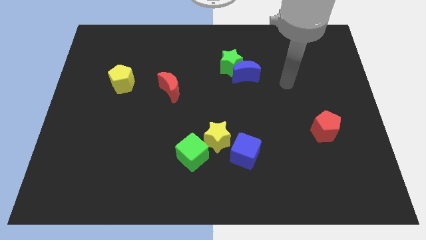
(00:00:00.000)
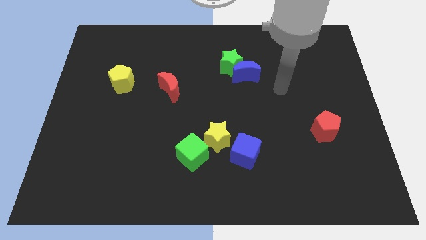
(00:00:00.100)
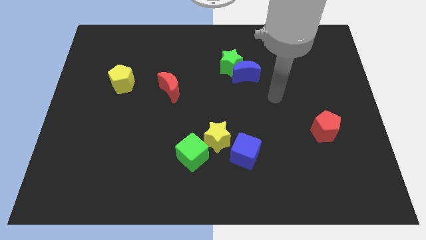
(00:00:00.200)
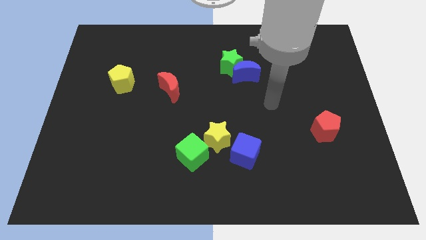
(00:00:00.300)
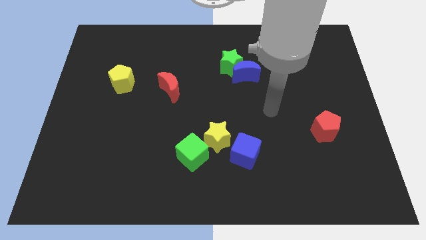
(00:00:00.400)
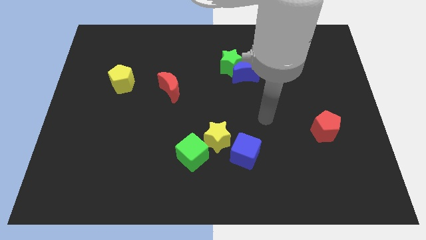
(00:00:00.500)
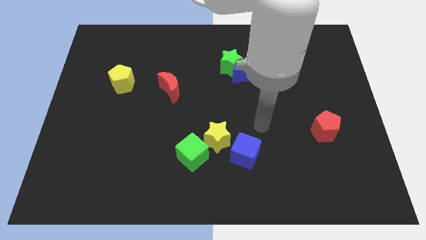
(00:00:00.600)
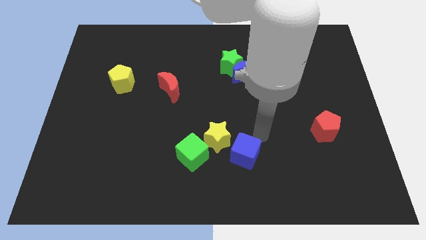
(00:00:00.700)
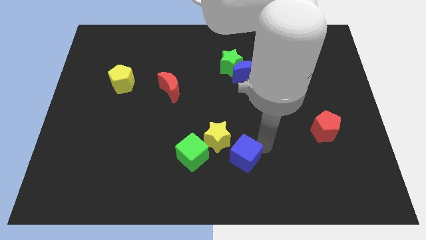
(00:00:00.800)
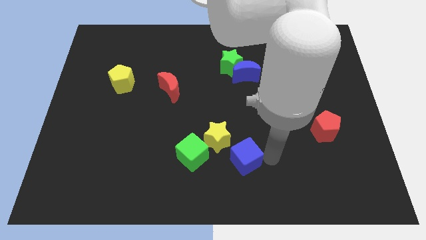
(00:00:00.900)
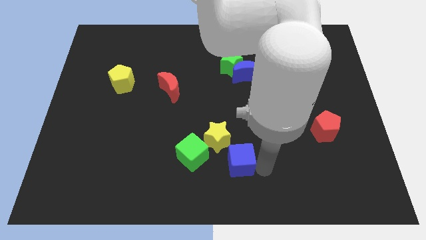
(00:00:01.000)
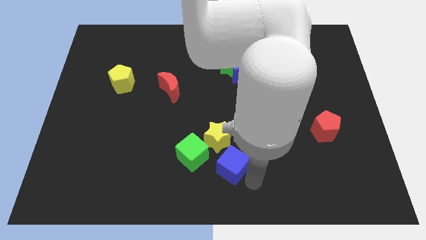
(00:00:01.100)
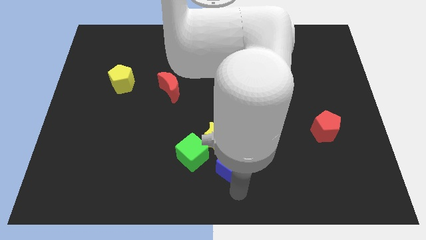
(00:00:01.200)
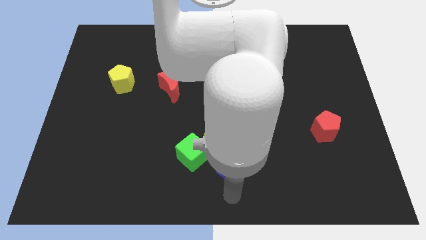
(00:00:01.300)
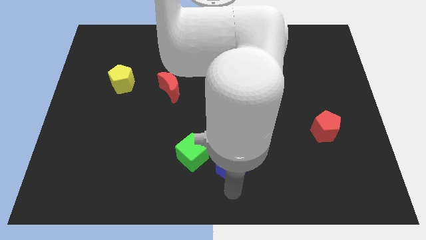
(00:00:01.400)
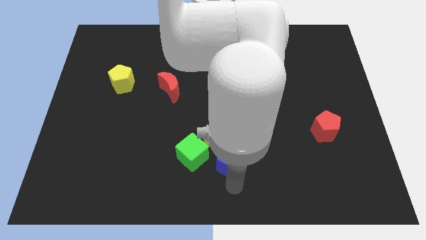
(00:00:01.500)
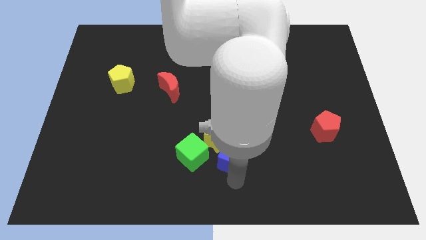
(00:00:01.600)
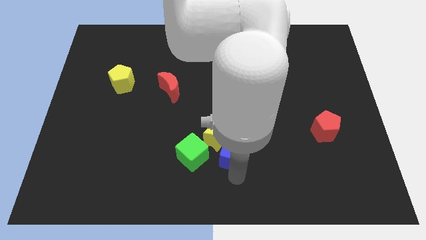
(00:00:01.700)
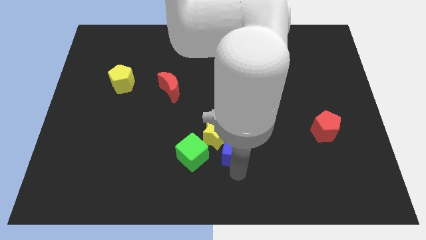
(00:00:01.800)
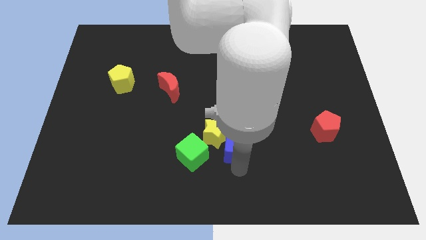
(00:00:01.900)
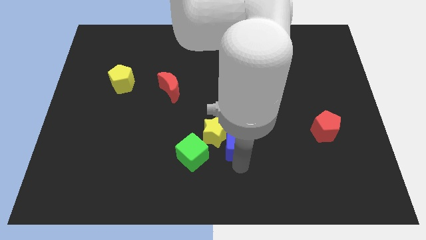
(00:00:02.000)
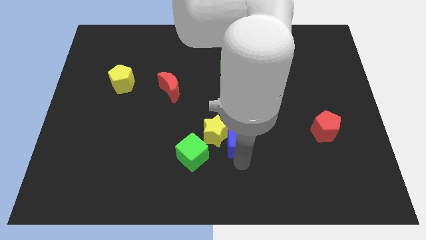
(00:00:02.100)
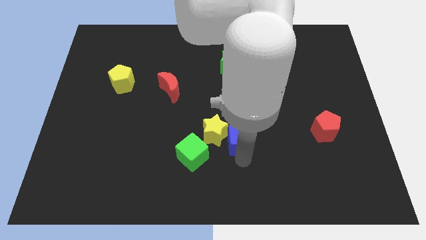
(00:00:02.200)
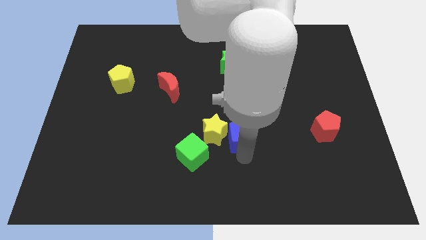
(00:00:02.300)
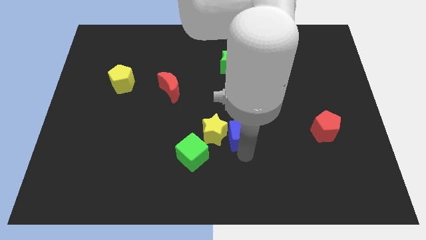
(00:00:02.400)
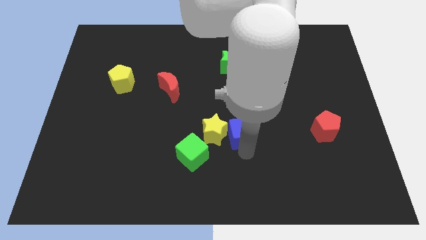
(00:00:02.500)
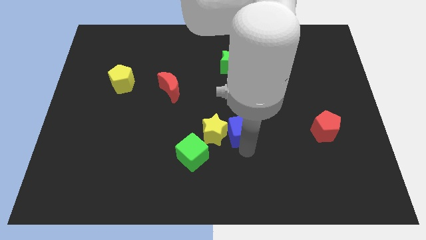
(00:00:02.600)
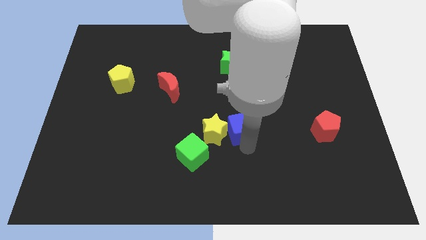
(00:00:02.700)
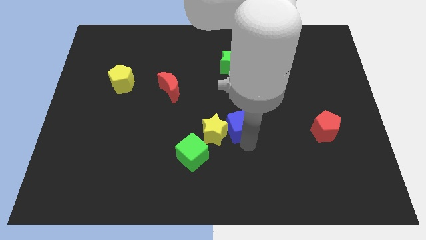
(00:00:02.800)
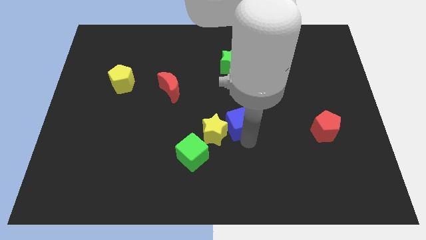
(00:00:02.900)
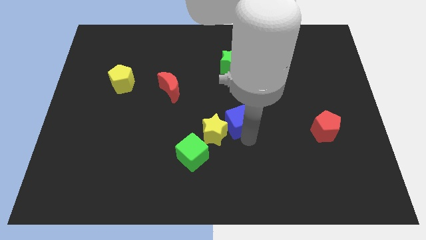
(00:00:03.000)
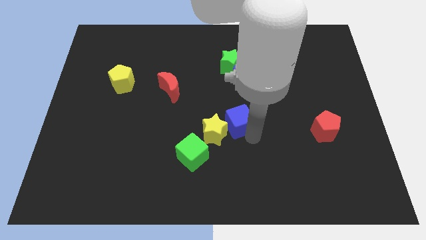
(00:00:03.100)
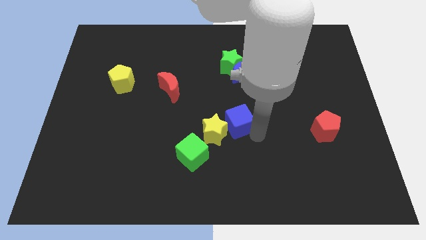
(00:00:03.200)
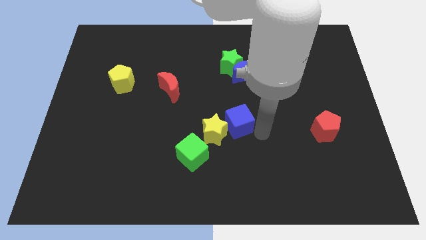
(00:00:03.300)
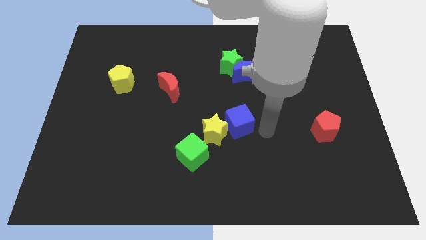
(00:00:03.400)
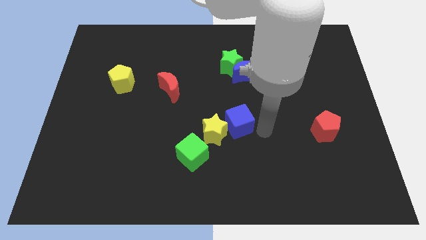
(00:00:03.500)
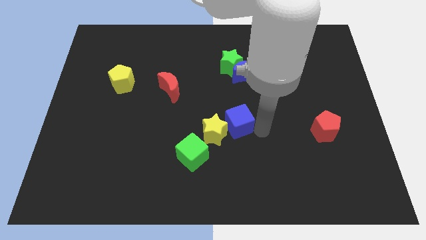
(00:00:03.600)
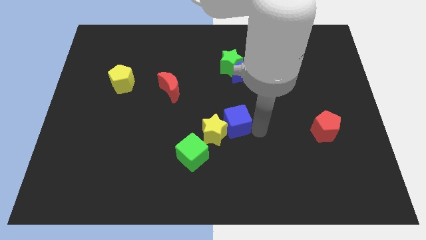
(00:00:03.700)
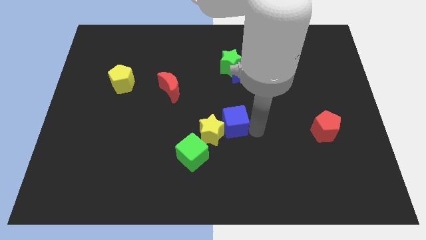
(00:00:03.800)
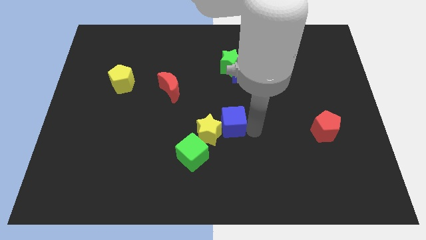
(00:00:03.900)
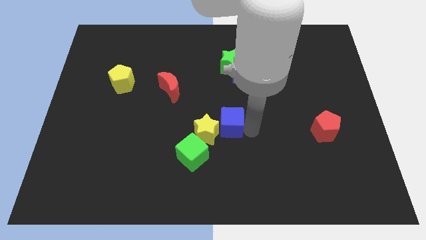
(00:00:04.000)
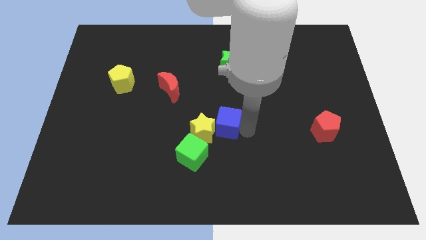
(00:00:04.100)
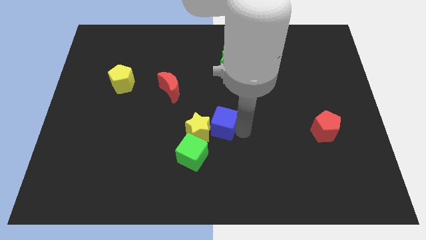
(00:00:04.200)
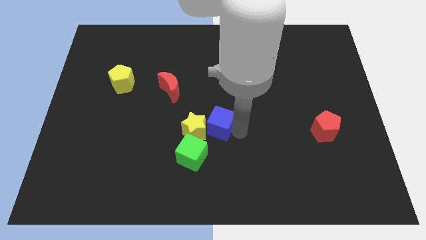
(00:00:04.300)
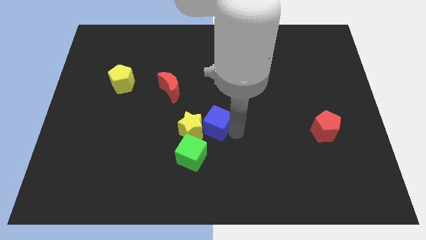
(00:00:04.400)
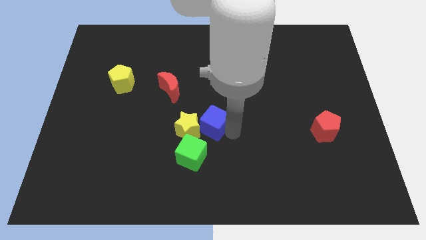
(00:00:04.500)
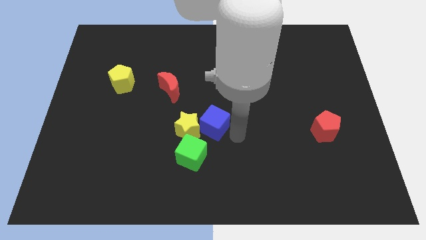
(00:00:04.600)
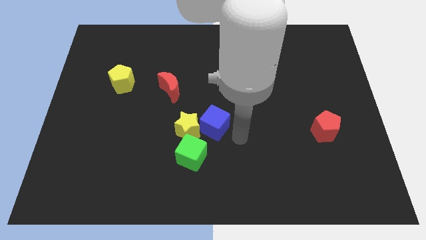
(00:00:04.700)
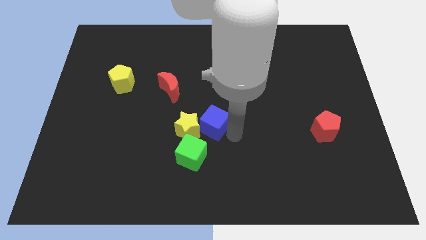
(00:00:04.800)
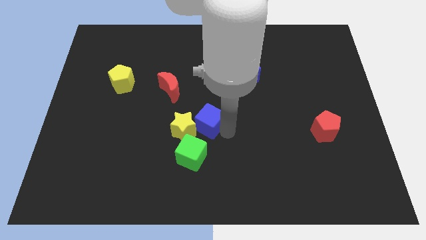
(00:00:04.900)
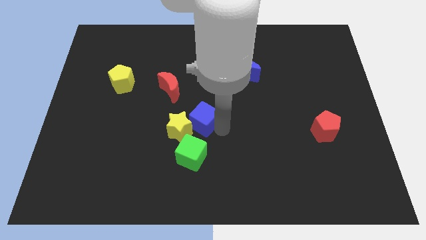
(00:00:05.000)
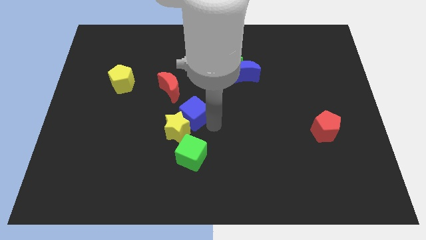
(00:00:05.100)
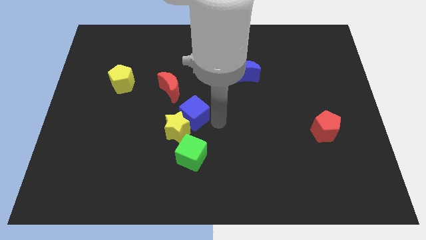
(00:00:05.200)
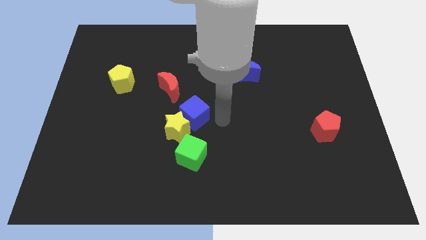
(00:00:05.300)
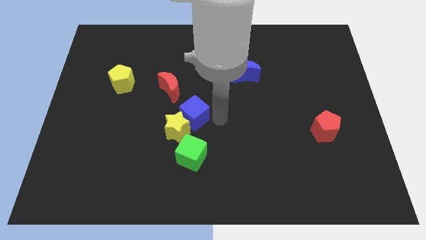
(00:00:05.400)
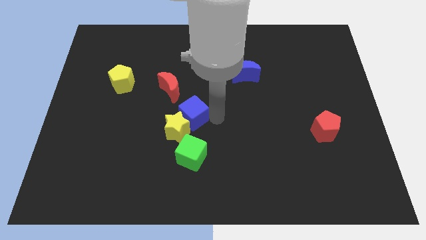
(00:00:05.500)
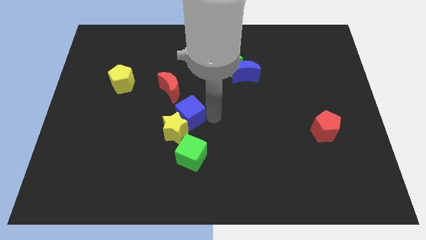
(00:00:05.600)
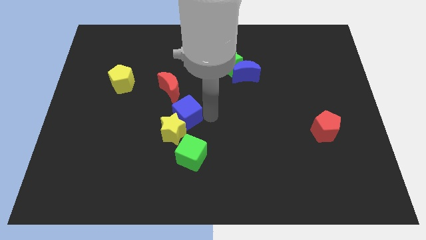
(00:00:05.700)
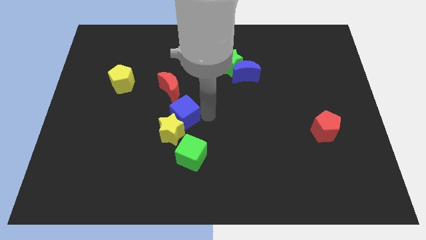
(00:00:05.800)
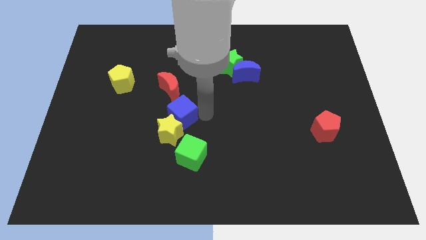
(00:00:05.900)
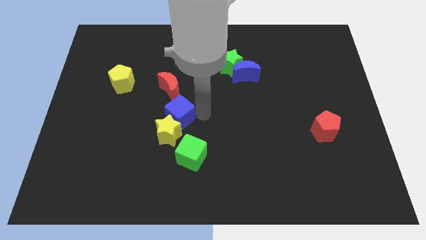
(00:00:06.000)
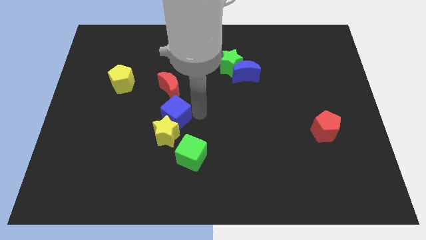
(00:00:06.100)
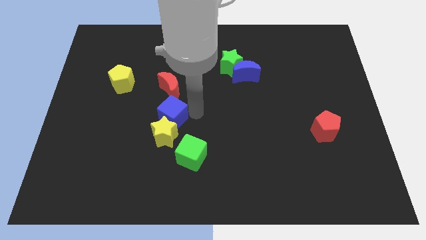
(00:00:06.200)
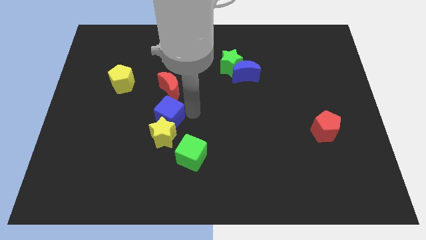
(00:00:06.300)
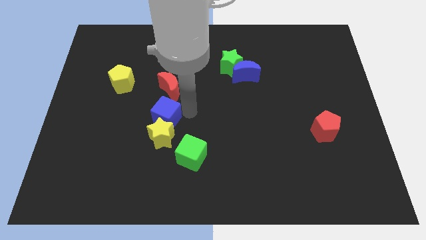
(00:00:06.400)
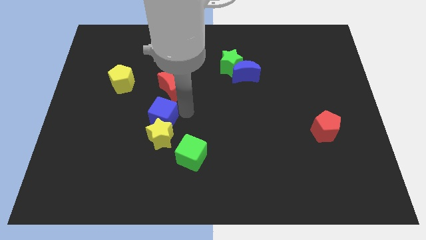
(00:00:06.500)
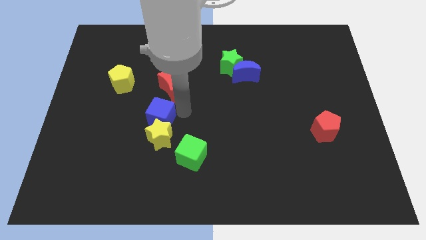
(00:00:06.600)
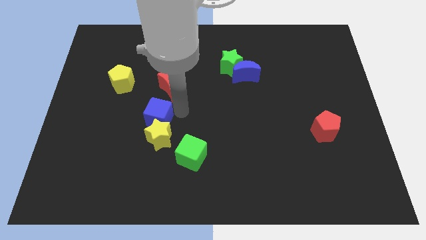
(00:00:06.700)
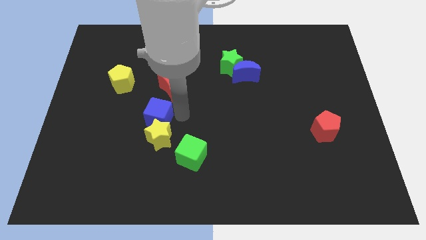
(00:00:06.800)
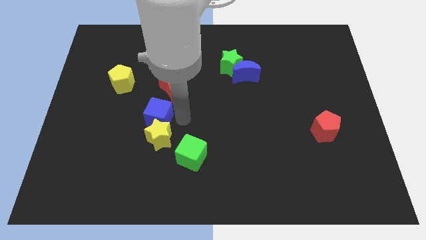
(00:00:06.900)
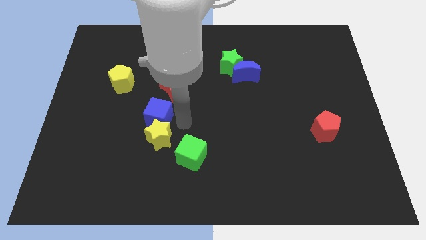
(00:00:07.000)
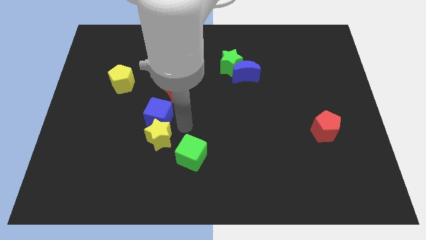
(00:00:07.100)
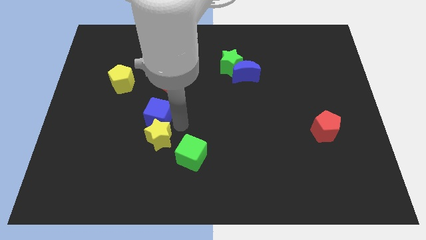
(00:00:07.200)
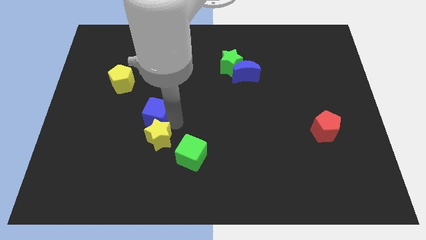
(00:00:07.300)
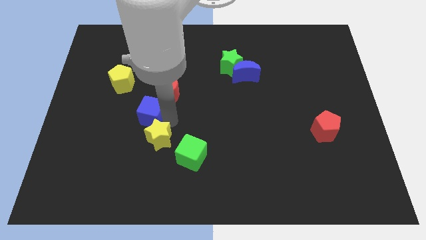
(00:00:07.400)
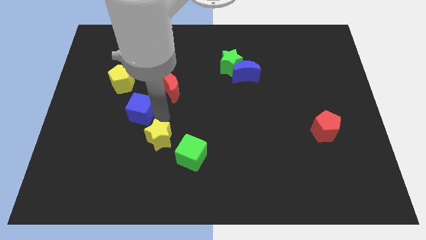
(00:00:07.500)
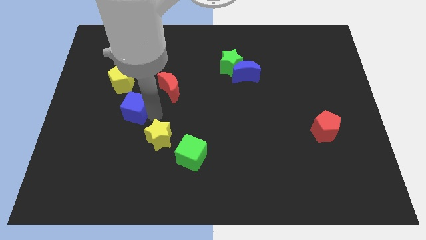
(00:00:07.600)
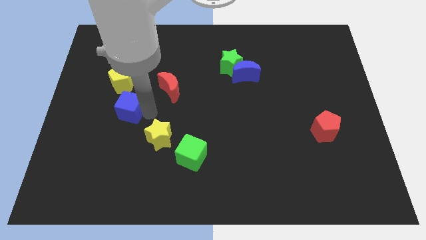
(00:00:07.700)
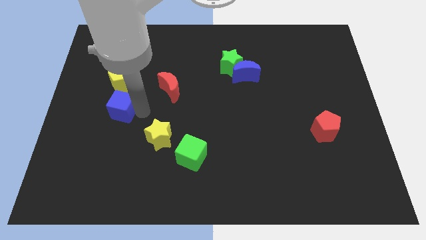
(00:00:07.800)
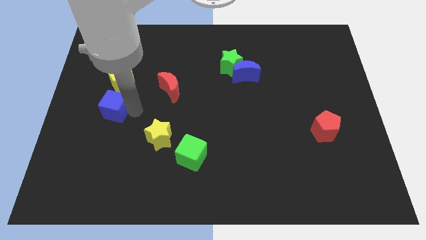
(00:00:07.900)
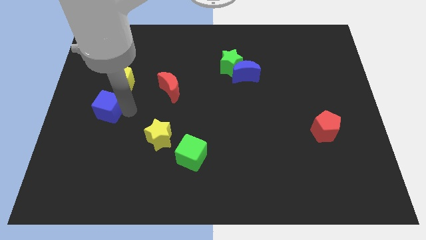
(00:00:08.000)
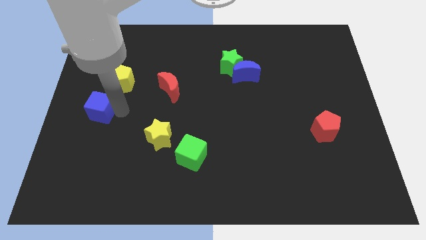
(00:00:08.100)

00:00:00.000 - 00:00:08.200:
slide the blue cube to the left side of the board
